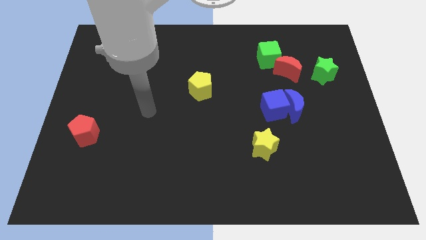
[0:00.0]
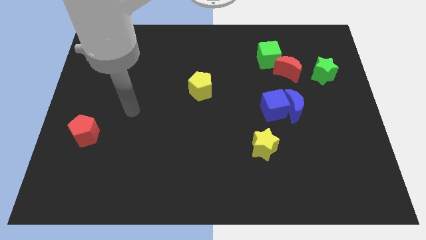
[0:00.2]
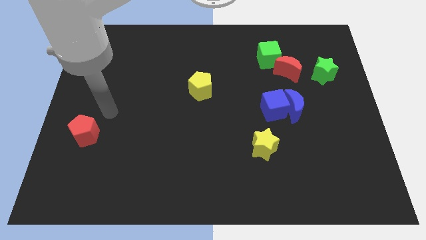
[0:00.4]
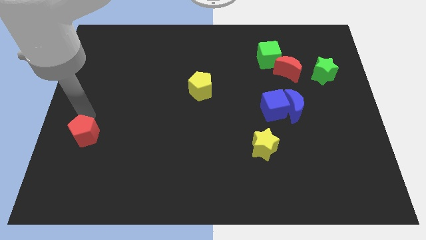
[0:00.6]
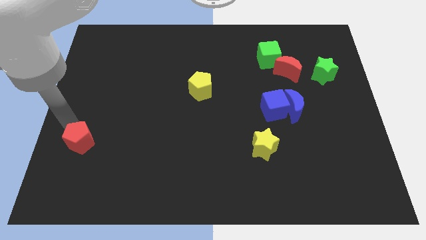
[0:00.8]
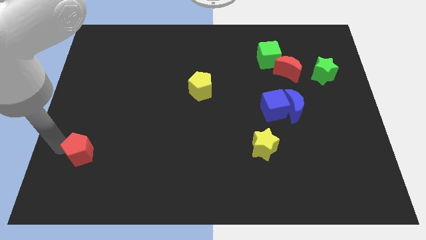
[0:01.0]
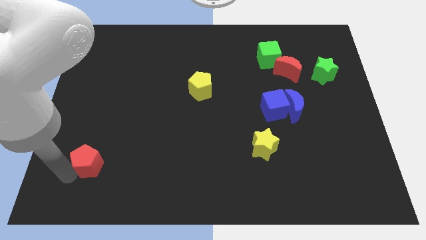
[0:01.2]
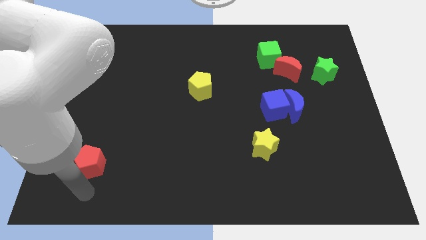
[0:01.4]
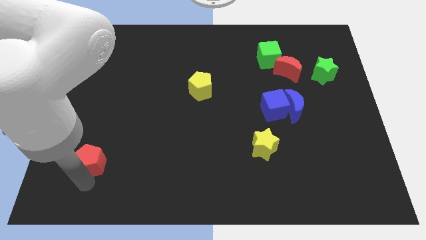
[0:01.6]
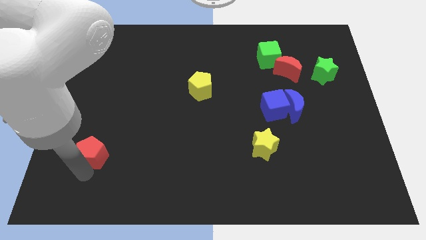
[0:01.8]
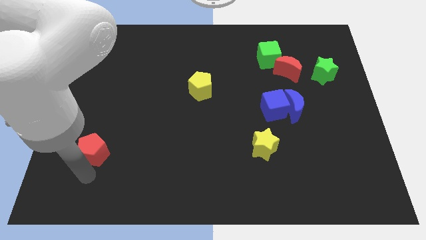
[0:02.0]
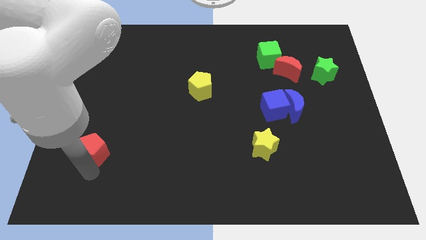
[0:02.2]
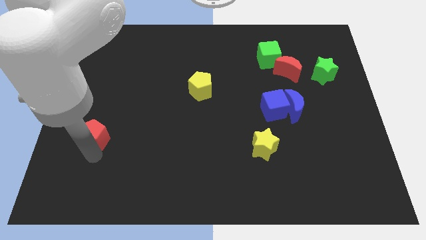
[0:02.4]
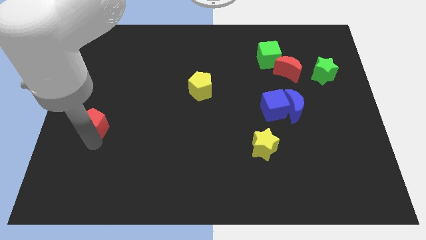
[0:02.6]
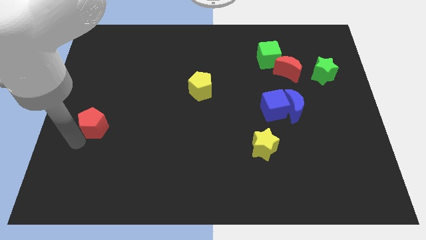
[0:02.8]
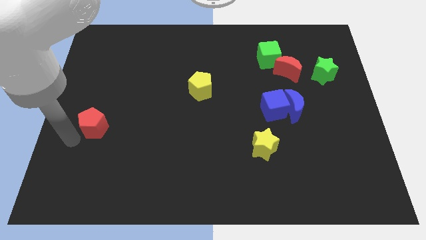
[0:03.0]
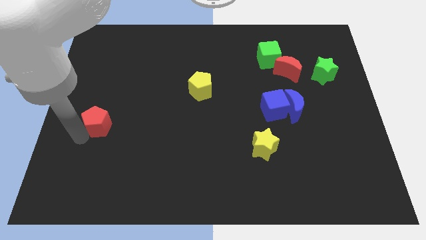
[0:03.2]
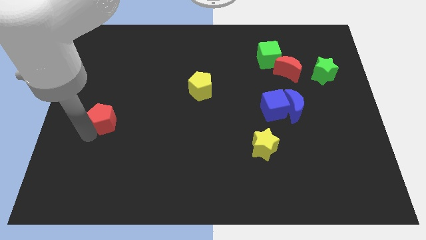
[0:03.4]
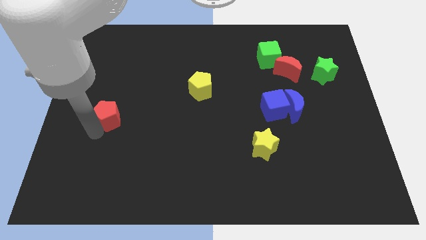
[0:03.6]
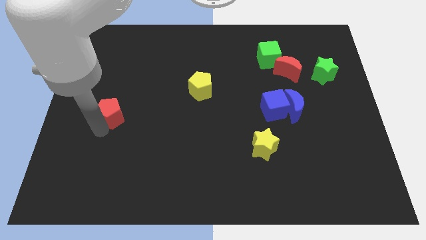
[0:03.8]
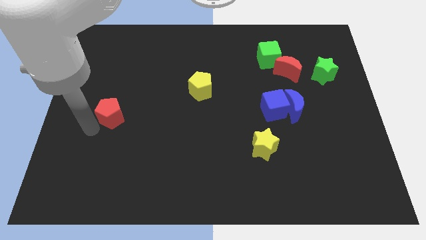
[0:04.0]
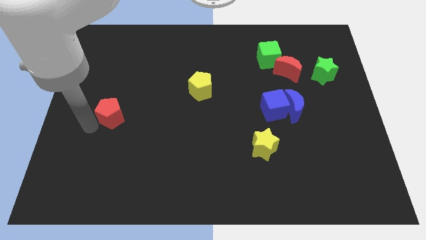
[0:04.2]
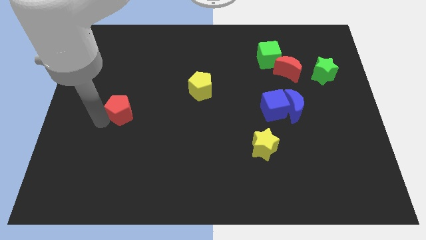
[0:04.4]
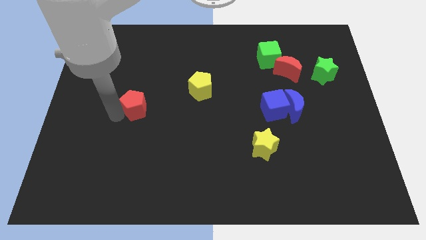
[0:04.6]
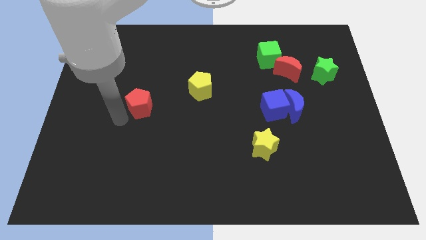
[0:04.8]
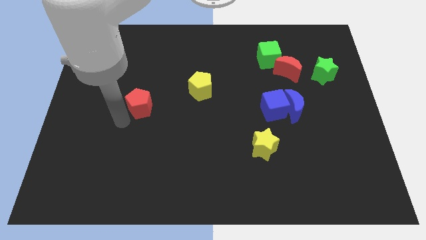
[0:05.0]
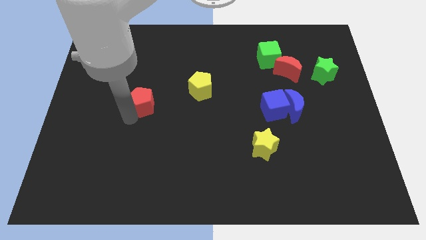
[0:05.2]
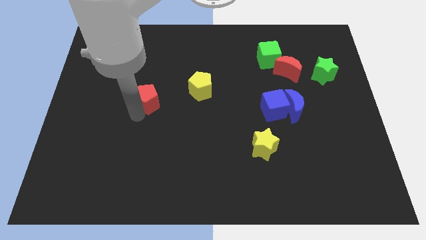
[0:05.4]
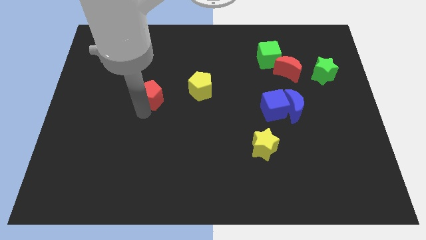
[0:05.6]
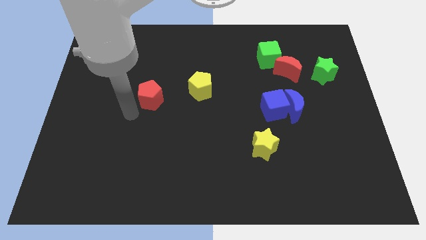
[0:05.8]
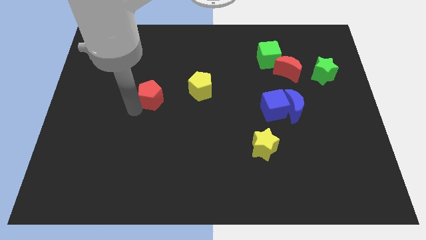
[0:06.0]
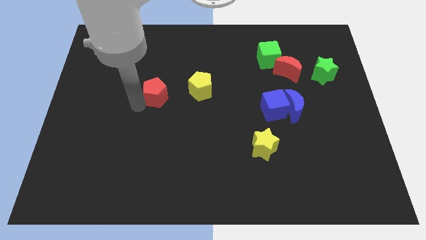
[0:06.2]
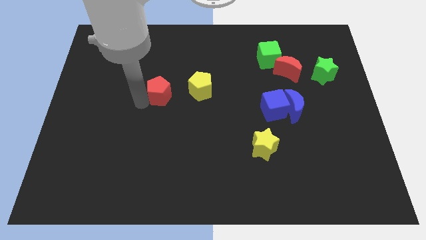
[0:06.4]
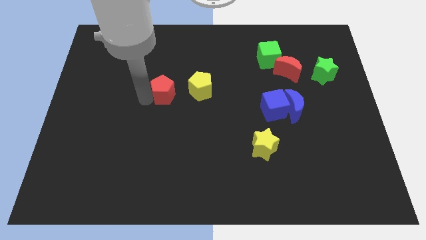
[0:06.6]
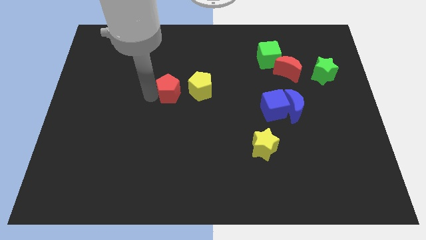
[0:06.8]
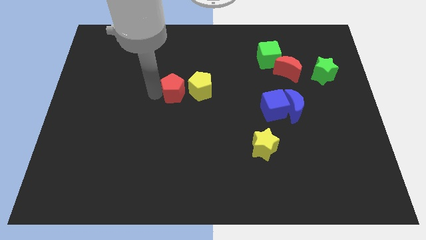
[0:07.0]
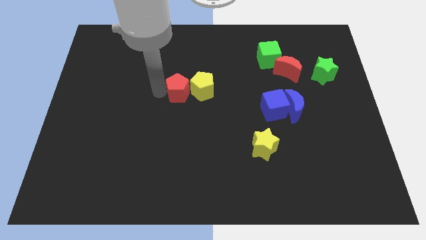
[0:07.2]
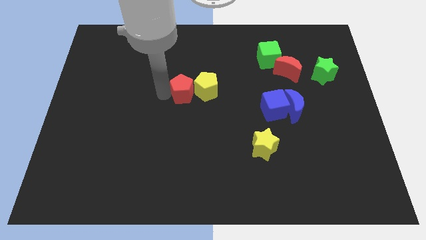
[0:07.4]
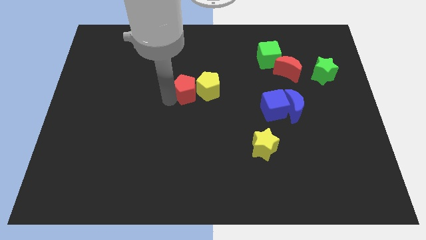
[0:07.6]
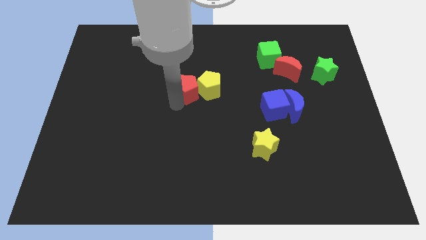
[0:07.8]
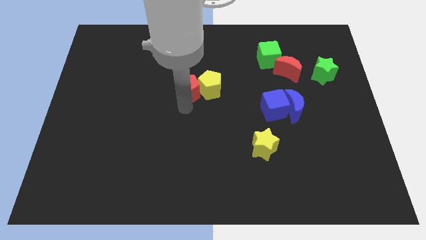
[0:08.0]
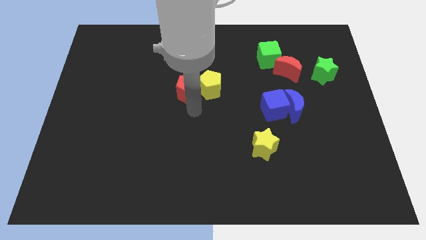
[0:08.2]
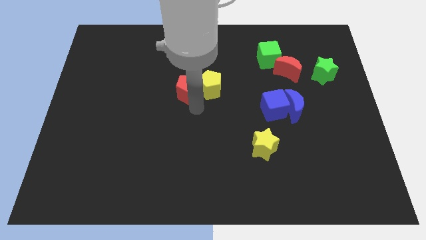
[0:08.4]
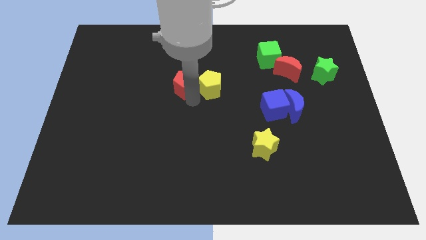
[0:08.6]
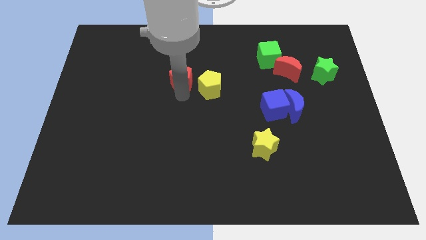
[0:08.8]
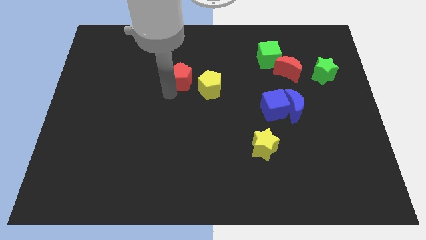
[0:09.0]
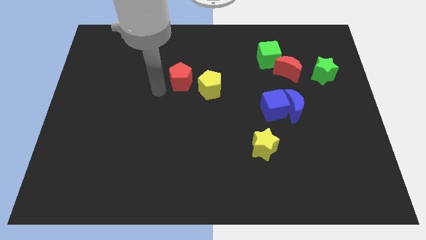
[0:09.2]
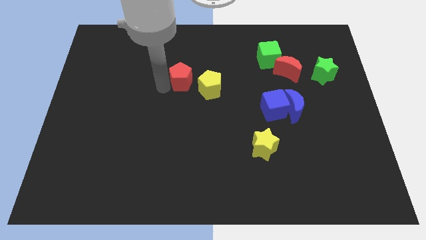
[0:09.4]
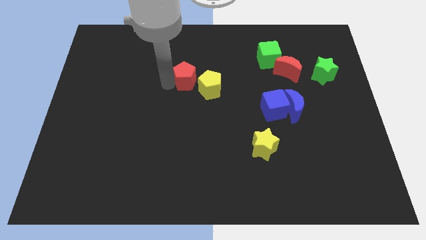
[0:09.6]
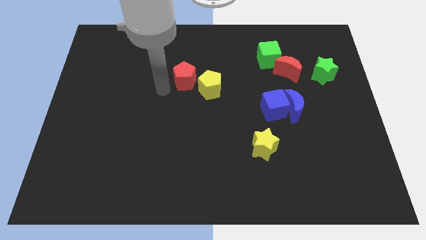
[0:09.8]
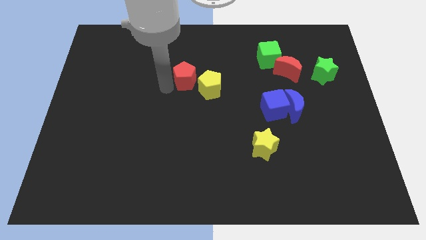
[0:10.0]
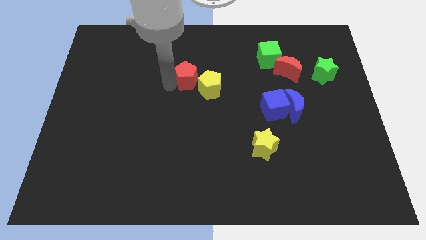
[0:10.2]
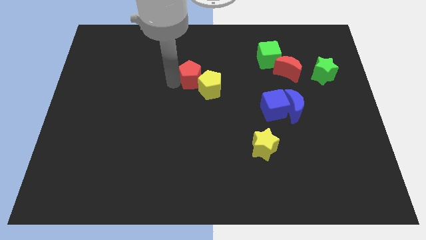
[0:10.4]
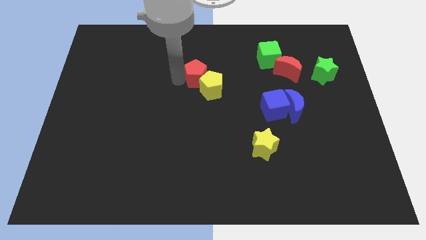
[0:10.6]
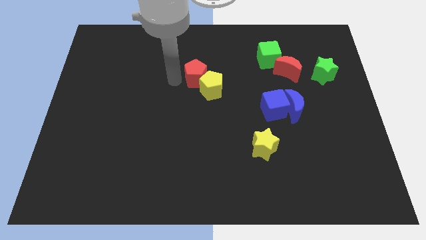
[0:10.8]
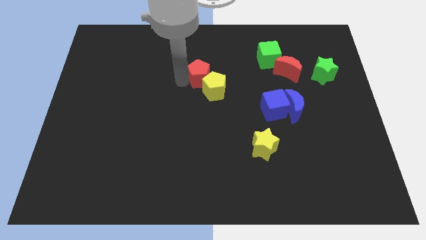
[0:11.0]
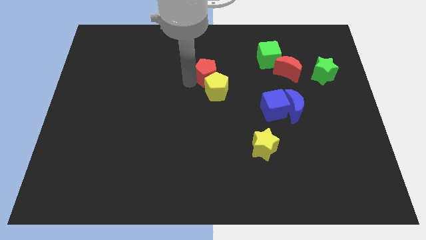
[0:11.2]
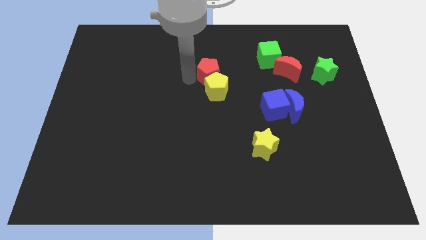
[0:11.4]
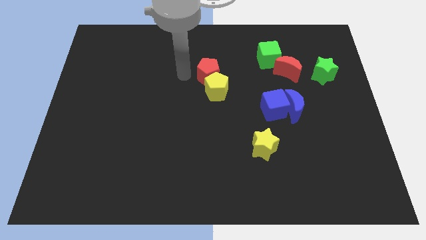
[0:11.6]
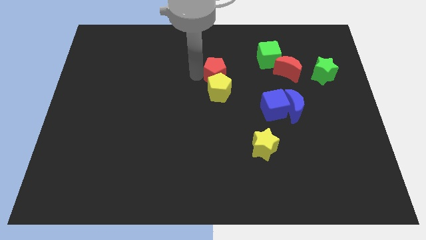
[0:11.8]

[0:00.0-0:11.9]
push the red pentagon diagonally up and to the right of the yellow pentagon
